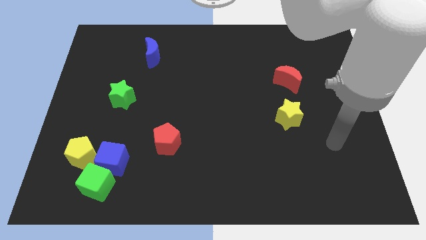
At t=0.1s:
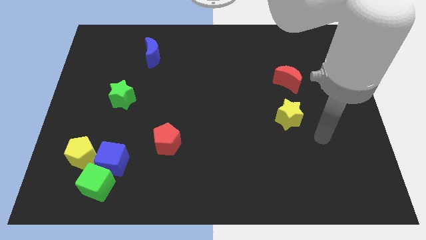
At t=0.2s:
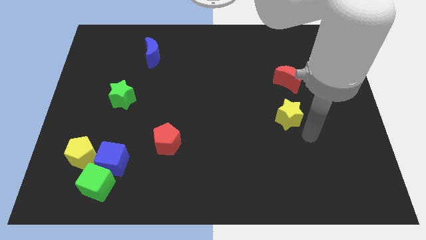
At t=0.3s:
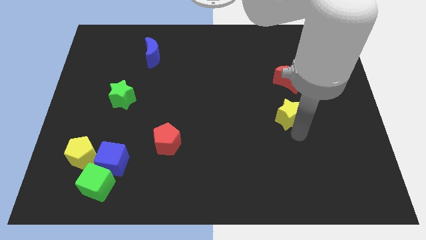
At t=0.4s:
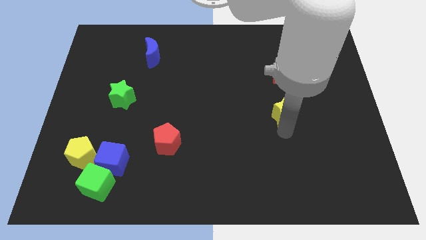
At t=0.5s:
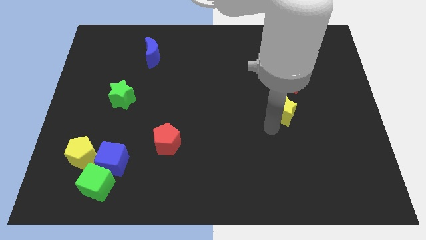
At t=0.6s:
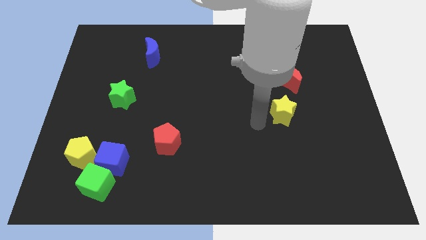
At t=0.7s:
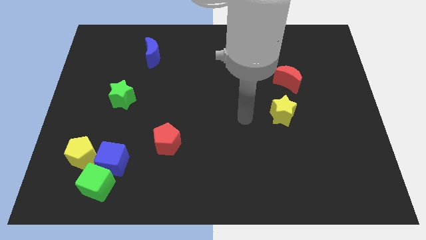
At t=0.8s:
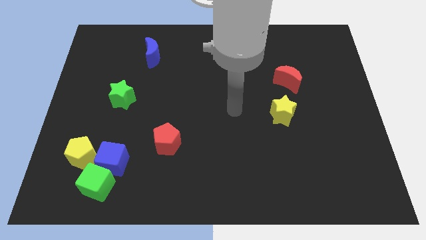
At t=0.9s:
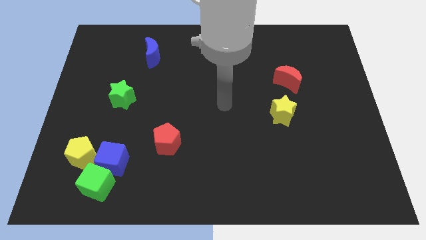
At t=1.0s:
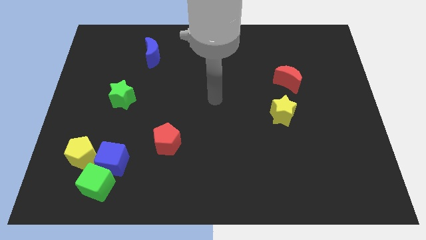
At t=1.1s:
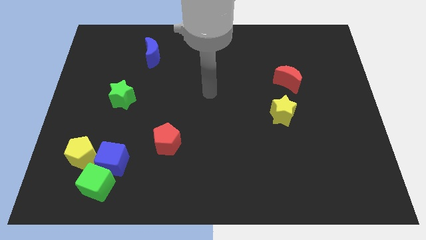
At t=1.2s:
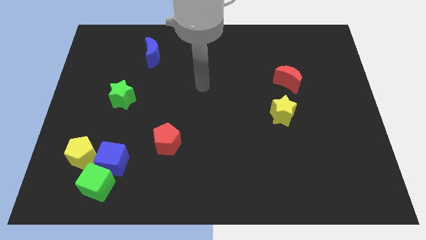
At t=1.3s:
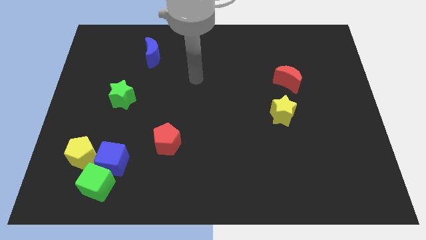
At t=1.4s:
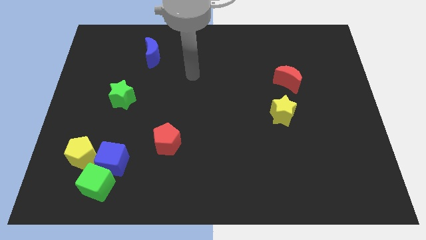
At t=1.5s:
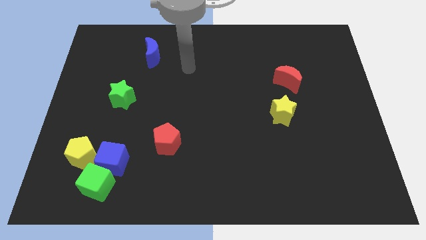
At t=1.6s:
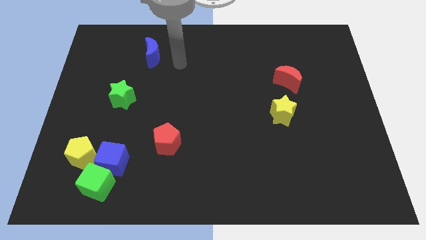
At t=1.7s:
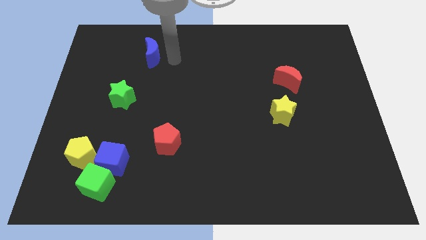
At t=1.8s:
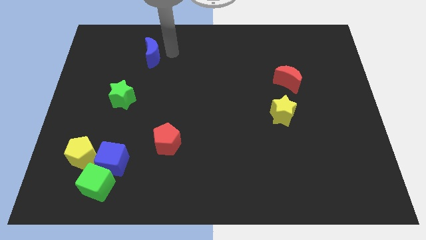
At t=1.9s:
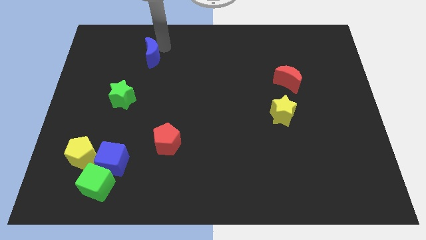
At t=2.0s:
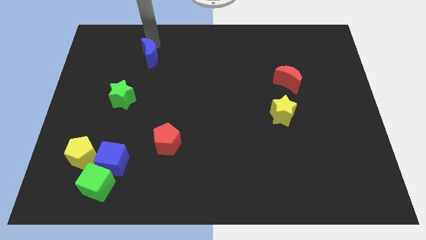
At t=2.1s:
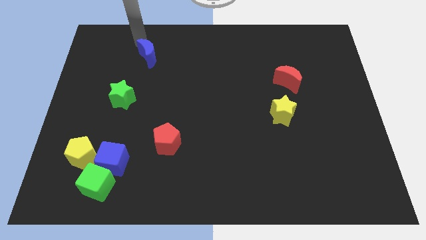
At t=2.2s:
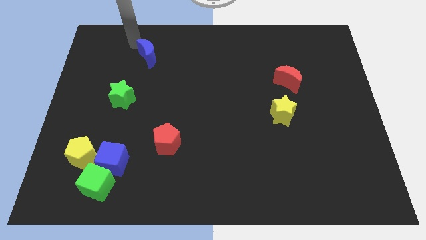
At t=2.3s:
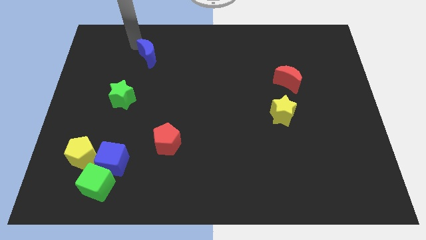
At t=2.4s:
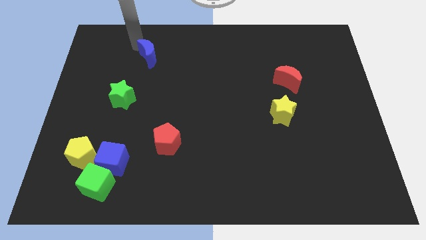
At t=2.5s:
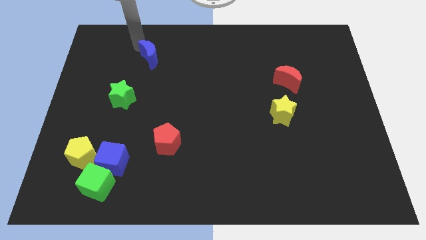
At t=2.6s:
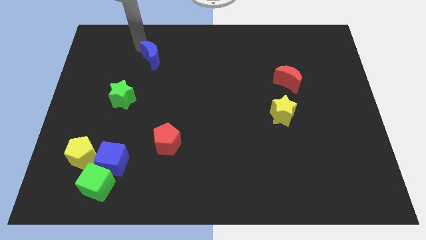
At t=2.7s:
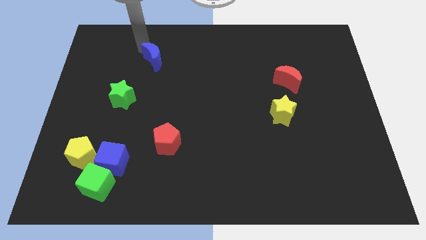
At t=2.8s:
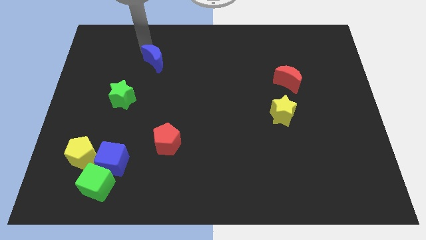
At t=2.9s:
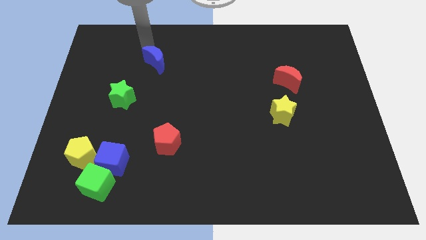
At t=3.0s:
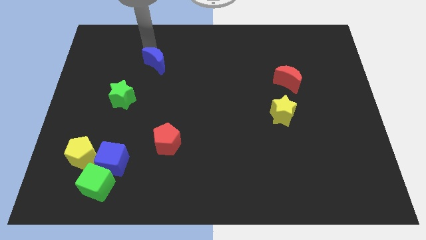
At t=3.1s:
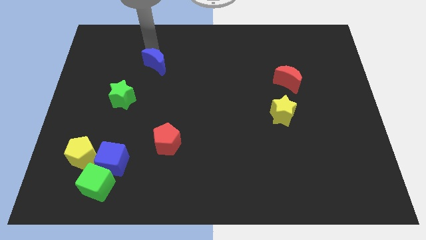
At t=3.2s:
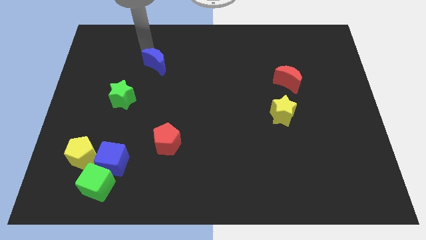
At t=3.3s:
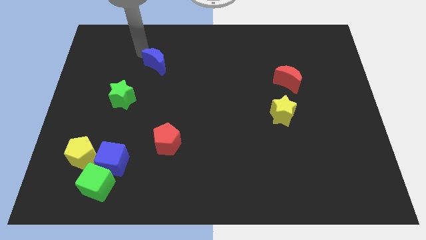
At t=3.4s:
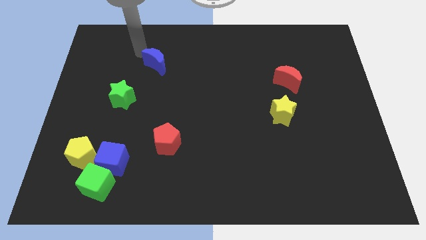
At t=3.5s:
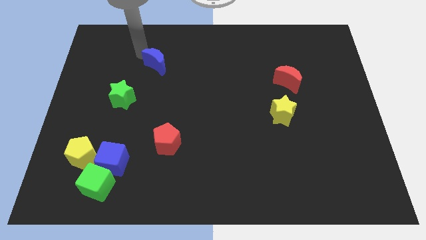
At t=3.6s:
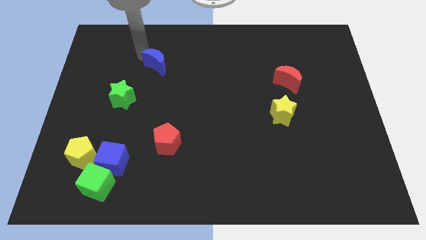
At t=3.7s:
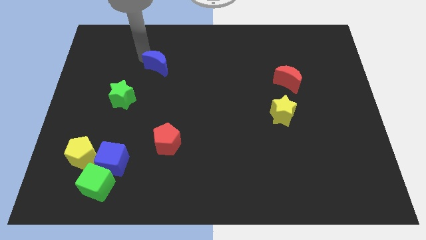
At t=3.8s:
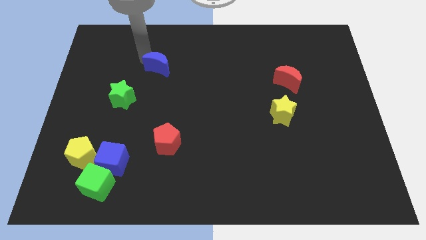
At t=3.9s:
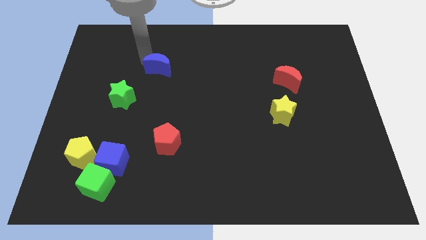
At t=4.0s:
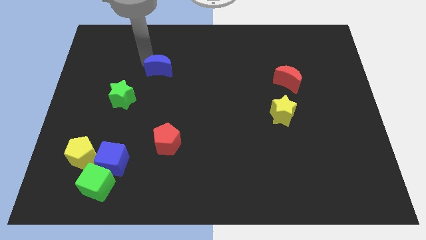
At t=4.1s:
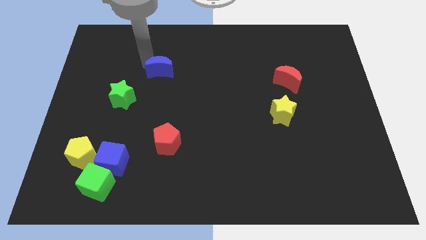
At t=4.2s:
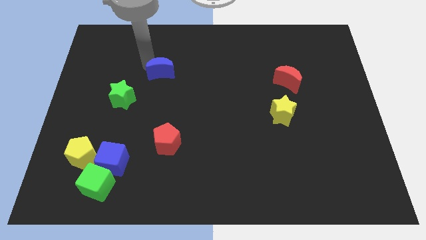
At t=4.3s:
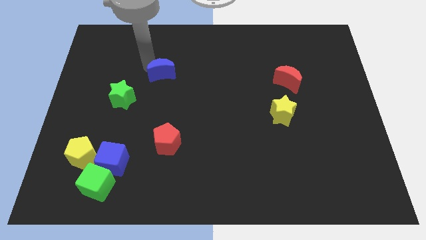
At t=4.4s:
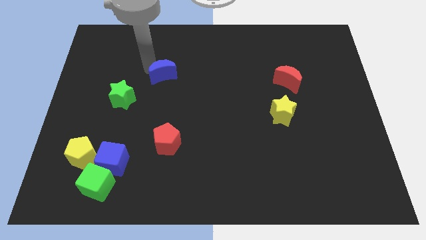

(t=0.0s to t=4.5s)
slightly push the blue moon downwards and then right

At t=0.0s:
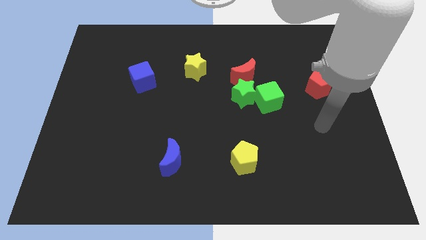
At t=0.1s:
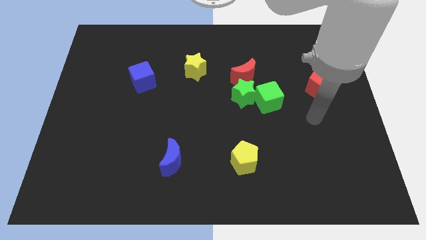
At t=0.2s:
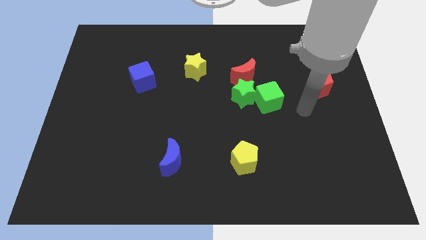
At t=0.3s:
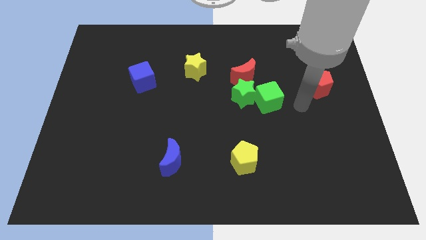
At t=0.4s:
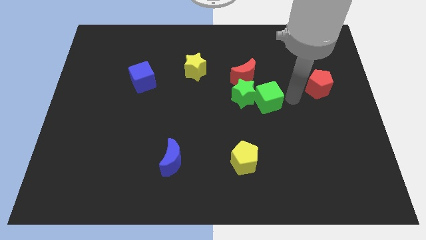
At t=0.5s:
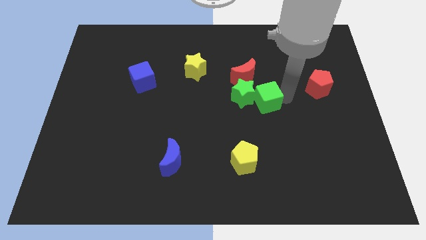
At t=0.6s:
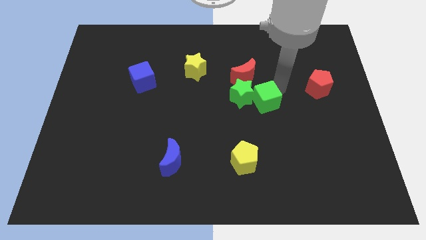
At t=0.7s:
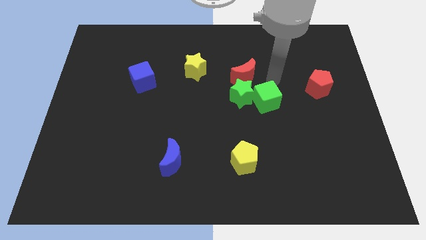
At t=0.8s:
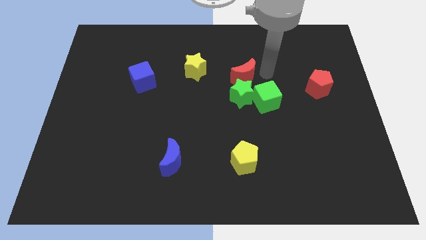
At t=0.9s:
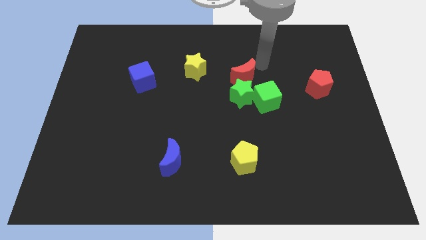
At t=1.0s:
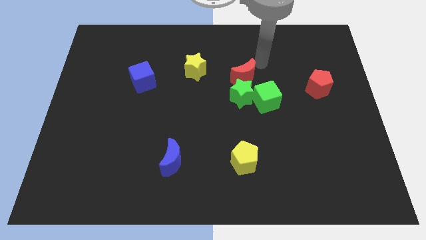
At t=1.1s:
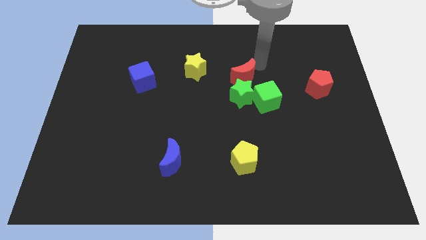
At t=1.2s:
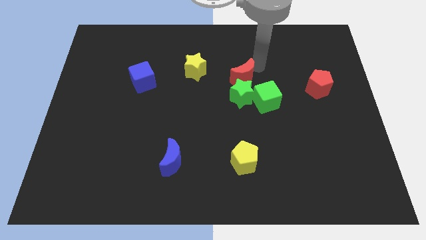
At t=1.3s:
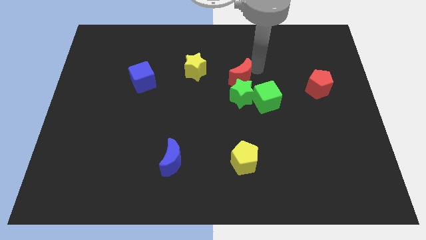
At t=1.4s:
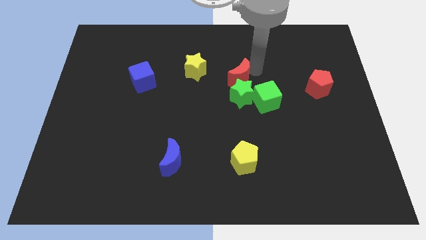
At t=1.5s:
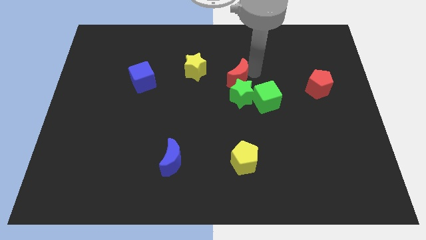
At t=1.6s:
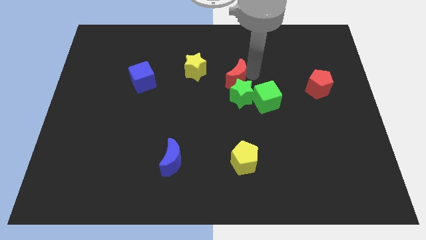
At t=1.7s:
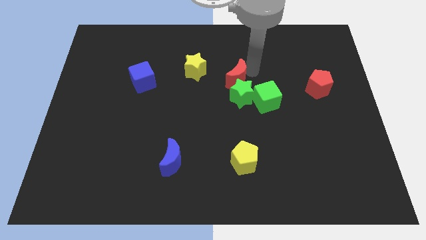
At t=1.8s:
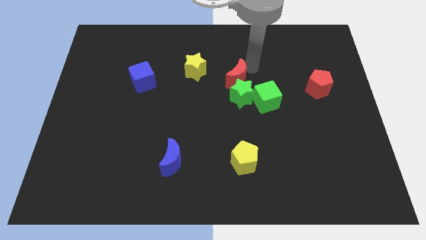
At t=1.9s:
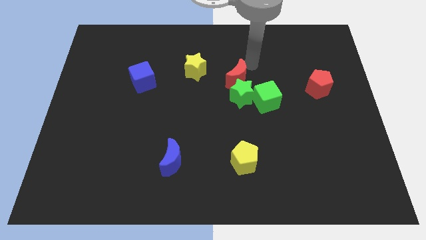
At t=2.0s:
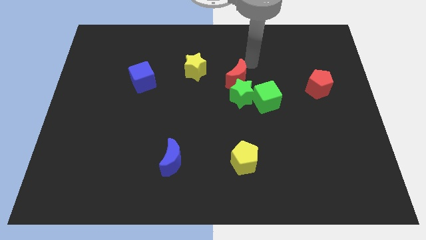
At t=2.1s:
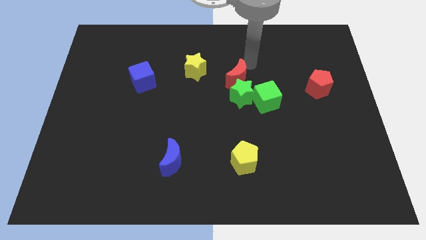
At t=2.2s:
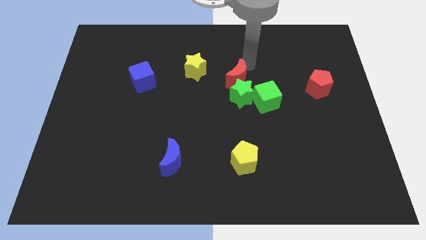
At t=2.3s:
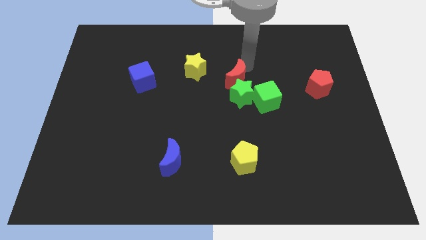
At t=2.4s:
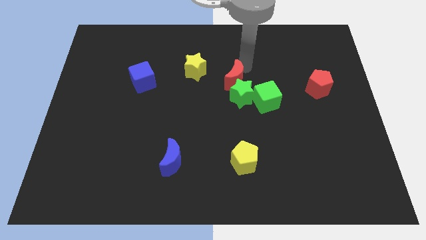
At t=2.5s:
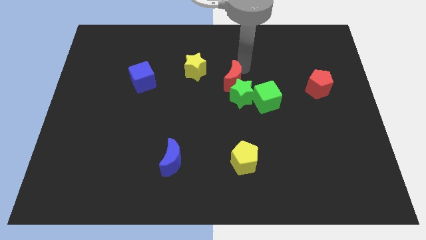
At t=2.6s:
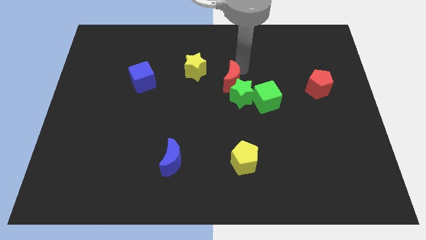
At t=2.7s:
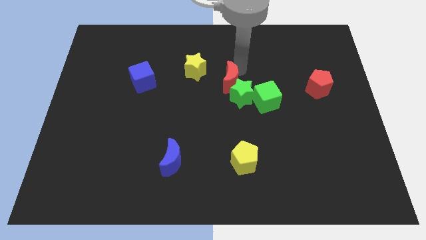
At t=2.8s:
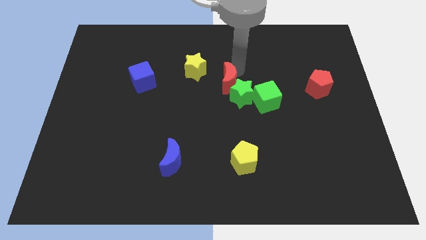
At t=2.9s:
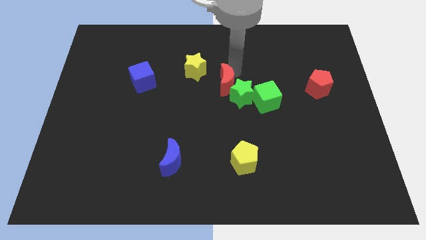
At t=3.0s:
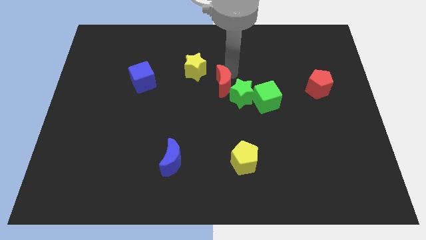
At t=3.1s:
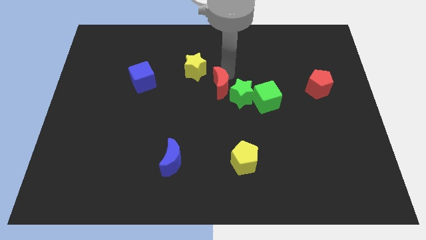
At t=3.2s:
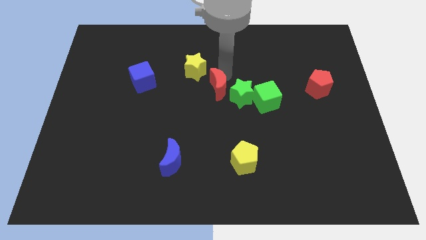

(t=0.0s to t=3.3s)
push the red moon somewhat downwards and then to the left

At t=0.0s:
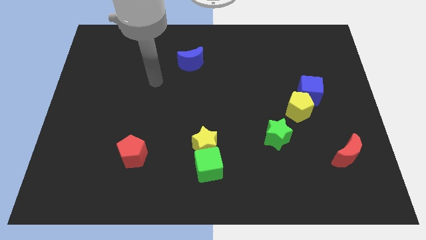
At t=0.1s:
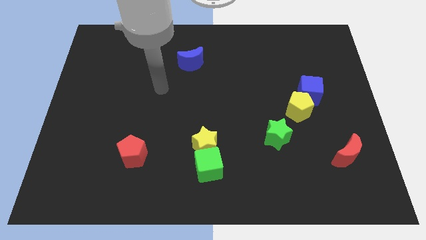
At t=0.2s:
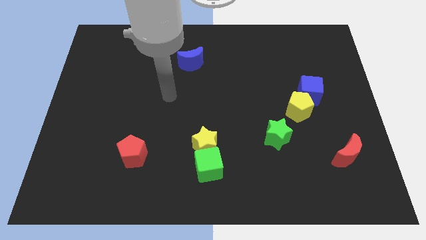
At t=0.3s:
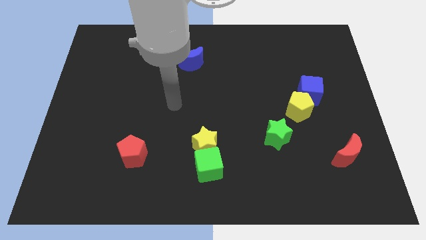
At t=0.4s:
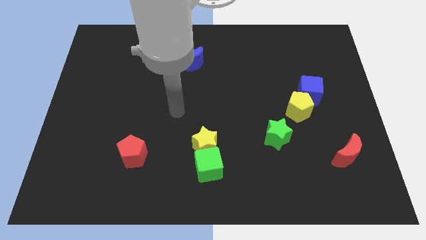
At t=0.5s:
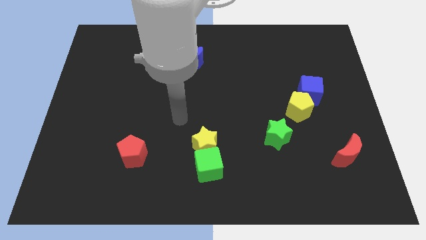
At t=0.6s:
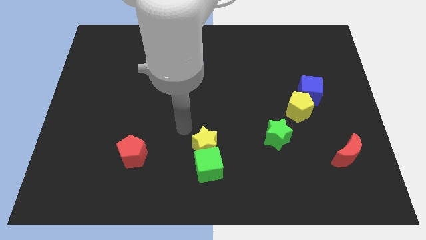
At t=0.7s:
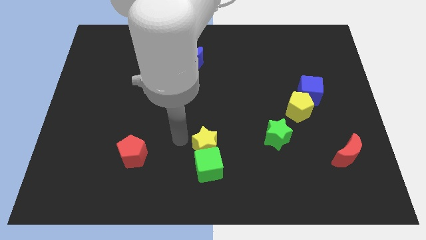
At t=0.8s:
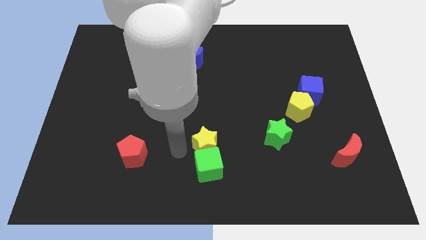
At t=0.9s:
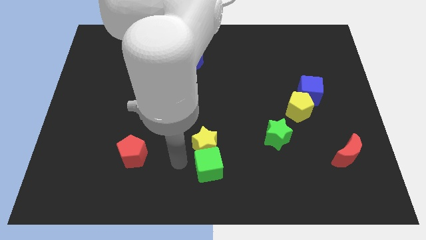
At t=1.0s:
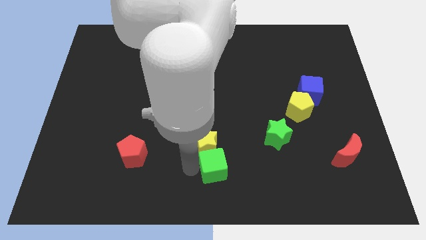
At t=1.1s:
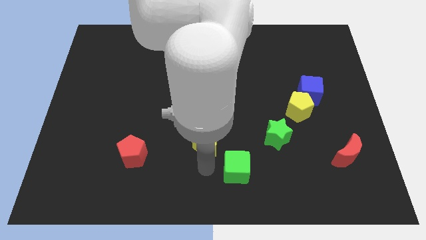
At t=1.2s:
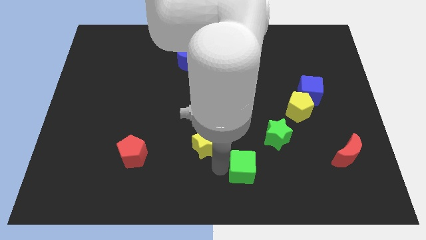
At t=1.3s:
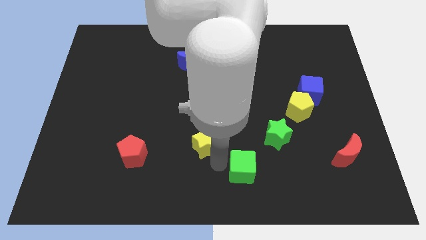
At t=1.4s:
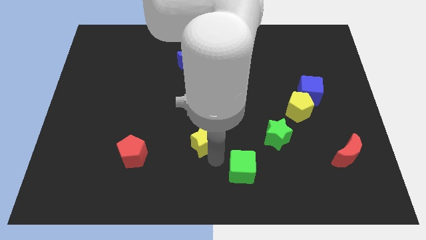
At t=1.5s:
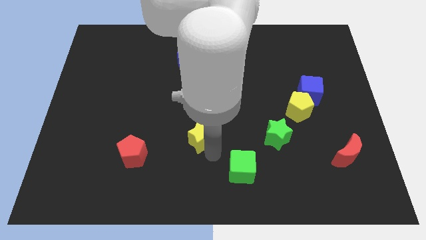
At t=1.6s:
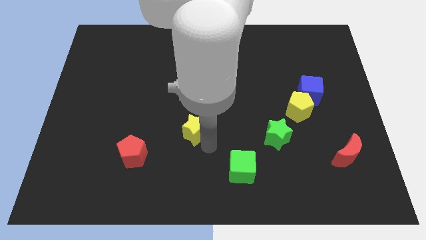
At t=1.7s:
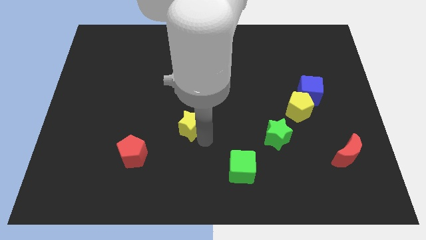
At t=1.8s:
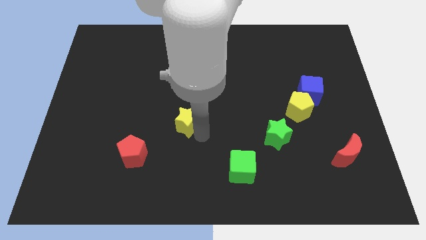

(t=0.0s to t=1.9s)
slightly slide the yellow star up and then left
